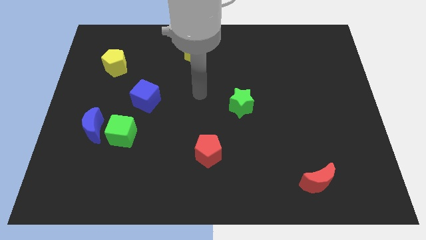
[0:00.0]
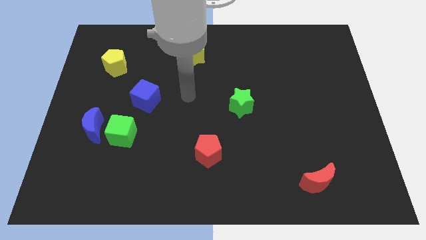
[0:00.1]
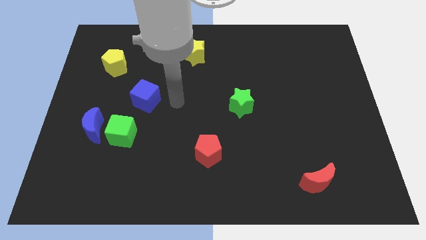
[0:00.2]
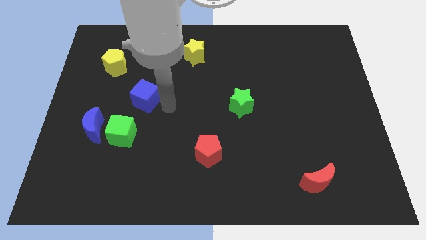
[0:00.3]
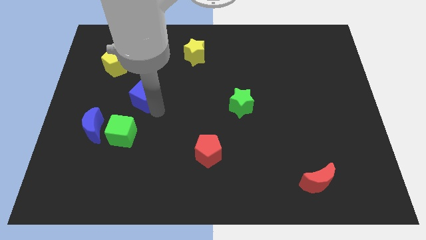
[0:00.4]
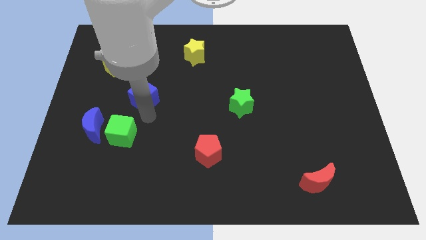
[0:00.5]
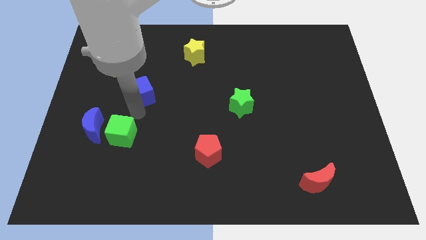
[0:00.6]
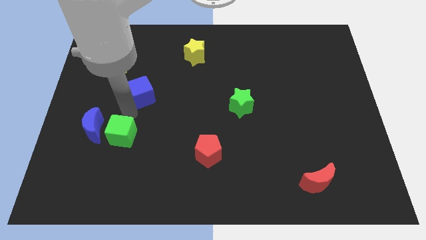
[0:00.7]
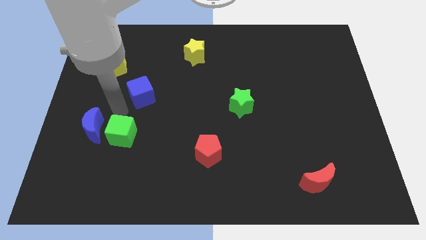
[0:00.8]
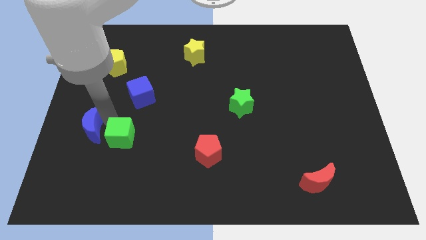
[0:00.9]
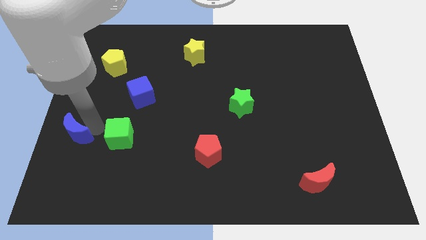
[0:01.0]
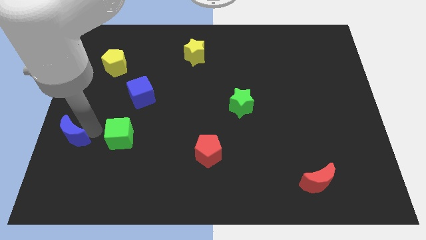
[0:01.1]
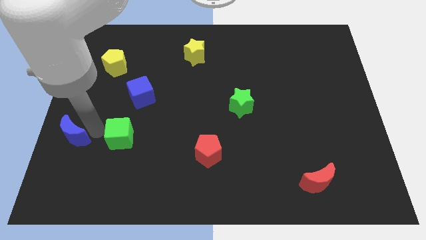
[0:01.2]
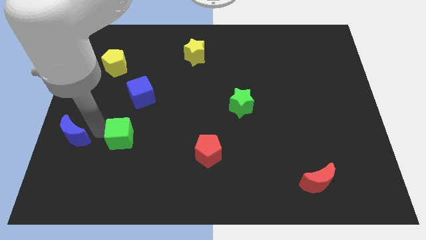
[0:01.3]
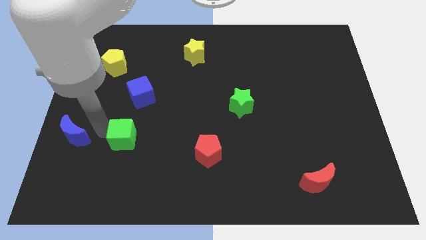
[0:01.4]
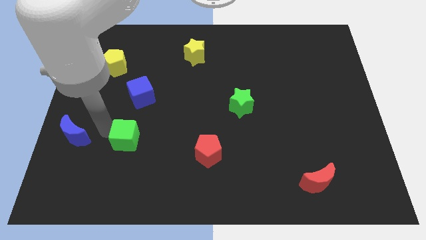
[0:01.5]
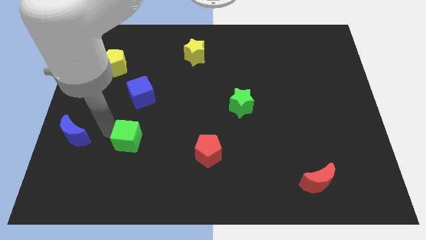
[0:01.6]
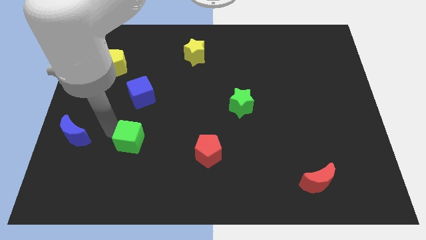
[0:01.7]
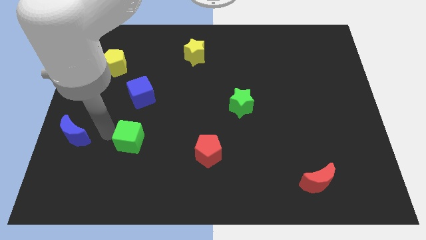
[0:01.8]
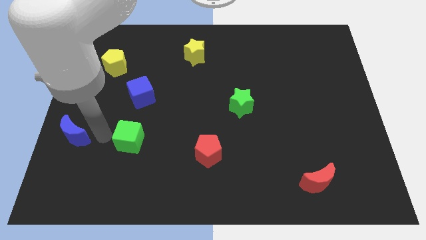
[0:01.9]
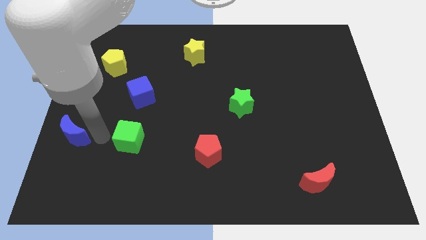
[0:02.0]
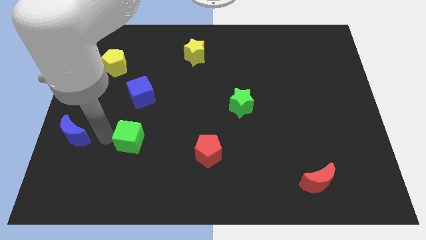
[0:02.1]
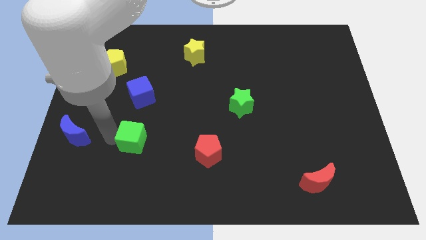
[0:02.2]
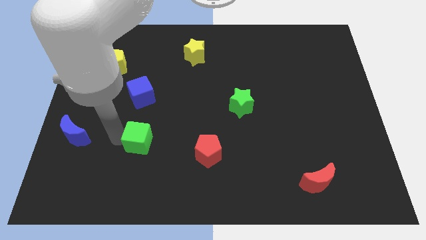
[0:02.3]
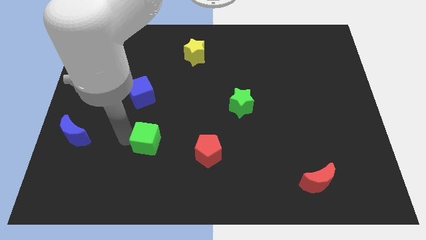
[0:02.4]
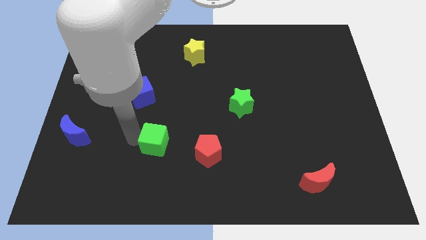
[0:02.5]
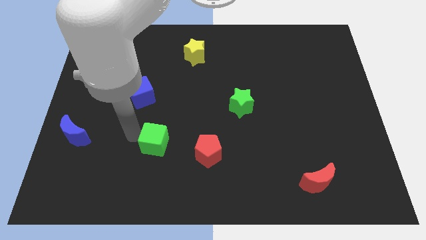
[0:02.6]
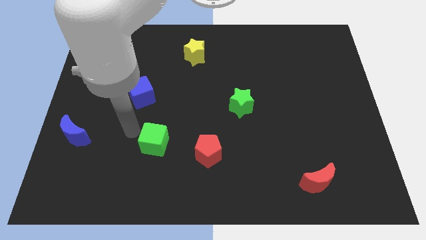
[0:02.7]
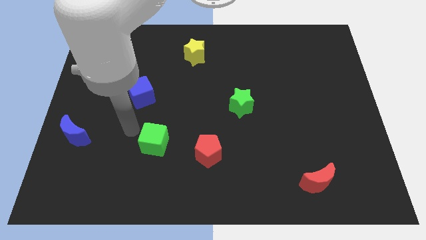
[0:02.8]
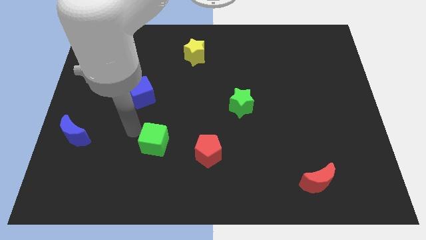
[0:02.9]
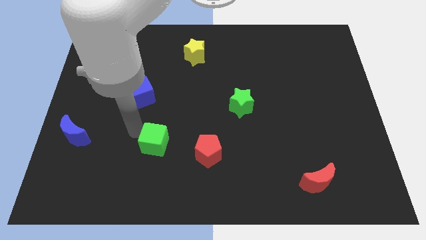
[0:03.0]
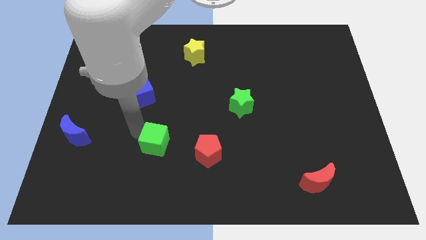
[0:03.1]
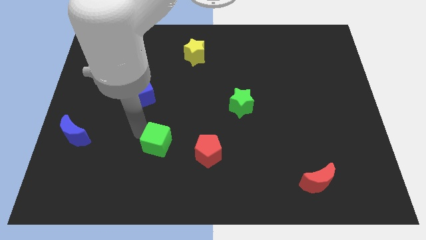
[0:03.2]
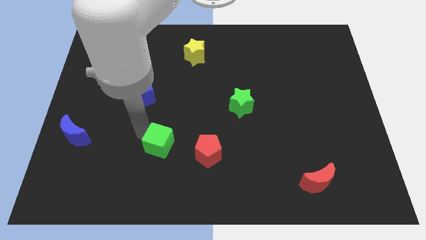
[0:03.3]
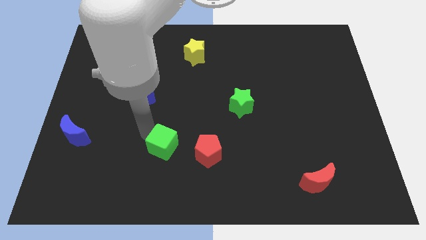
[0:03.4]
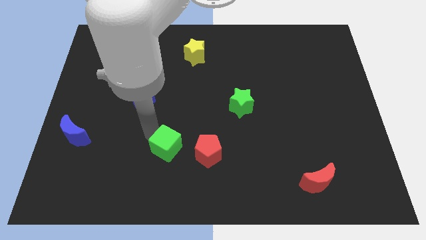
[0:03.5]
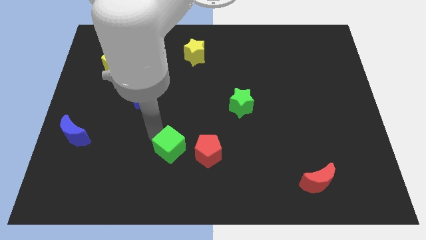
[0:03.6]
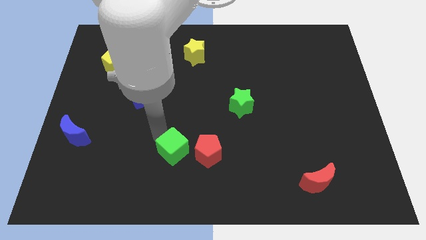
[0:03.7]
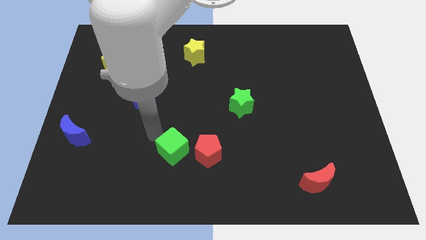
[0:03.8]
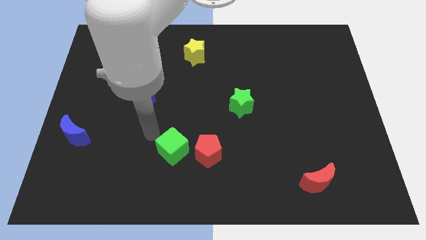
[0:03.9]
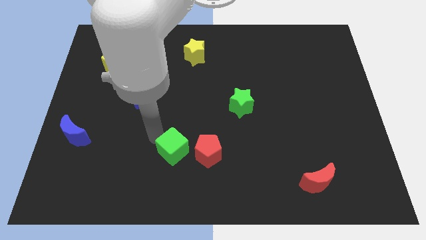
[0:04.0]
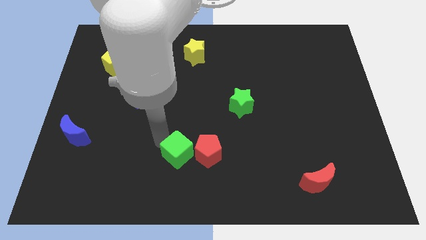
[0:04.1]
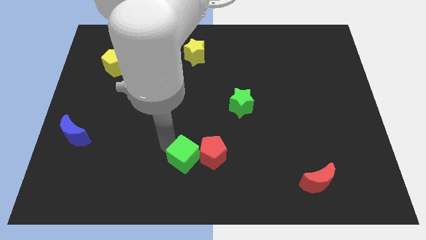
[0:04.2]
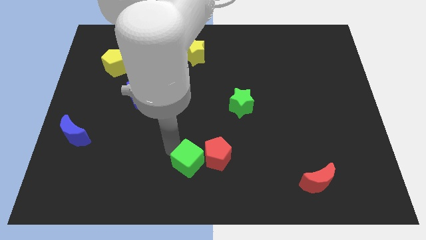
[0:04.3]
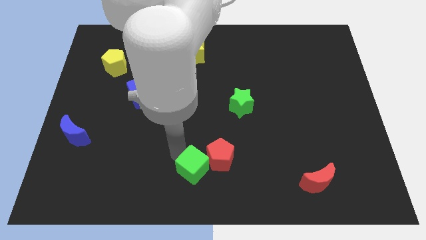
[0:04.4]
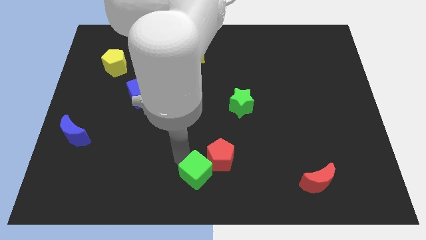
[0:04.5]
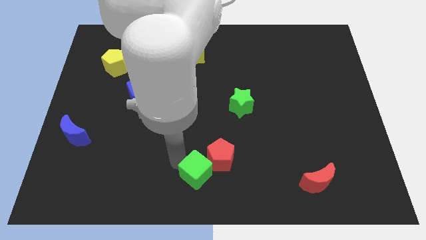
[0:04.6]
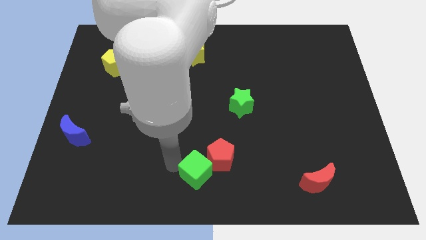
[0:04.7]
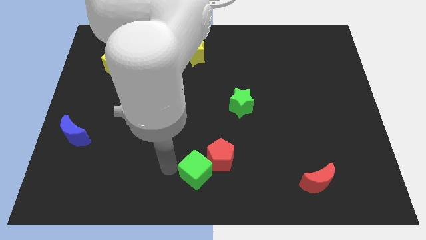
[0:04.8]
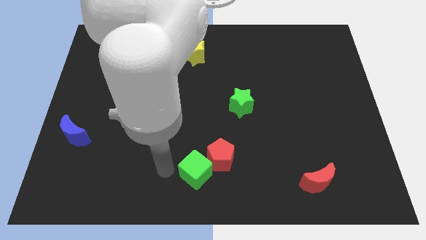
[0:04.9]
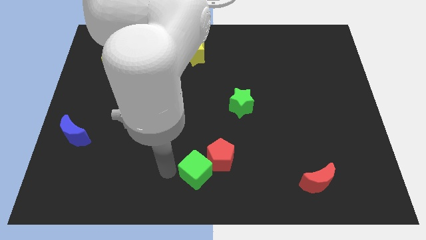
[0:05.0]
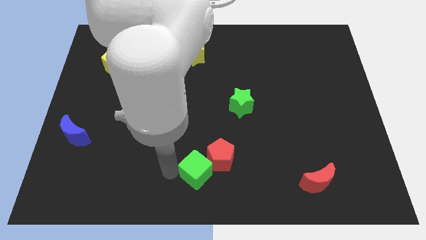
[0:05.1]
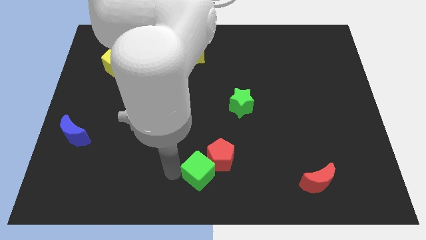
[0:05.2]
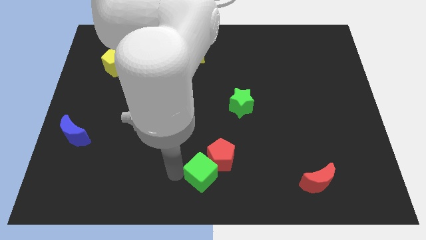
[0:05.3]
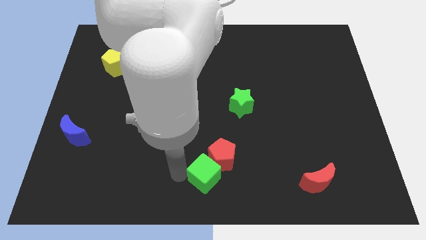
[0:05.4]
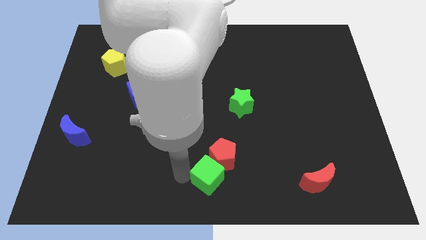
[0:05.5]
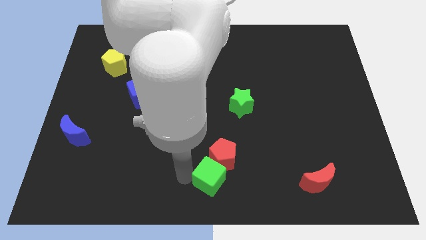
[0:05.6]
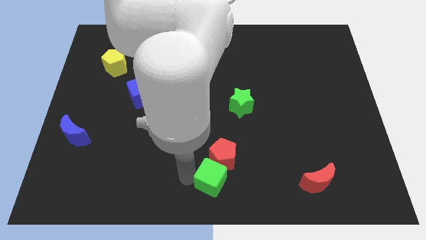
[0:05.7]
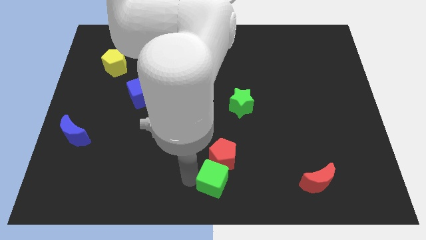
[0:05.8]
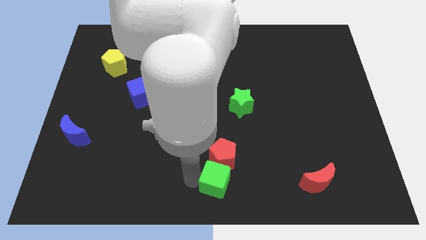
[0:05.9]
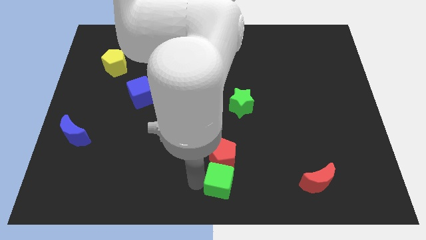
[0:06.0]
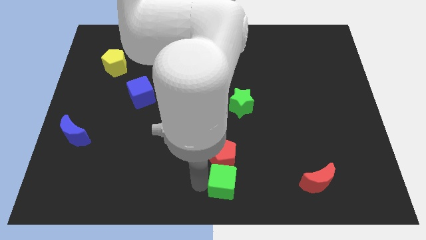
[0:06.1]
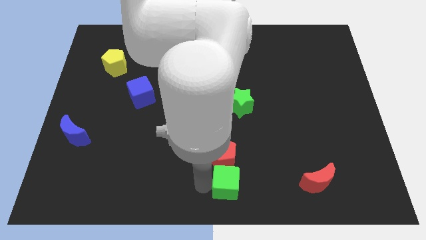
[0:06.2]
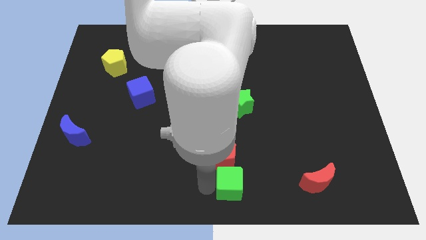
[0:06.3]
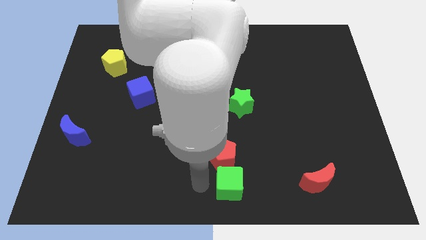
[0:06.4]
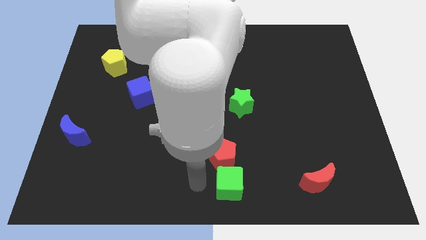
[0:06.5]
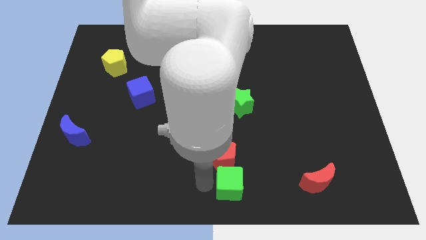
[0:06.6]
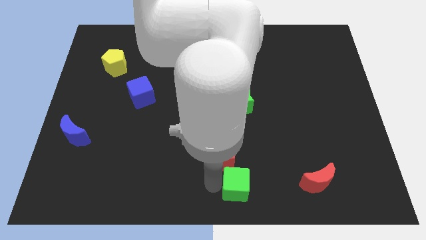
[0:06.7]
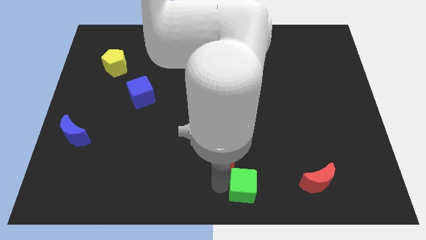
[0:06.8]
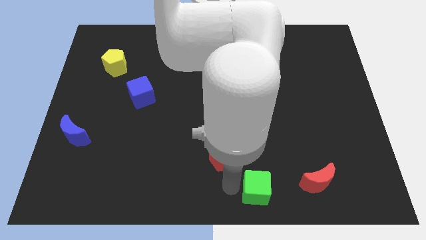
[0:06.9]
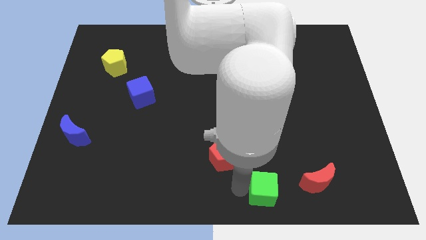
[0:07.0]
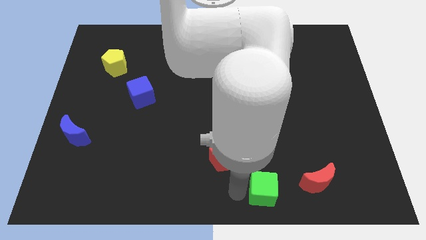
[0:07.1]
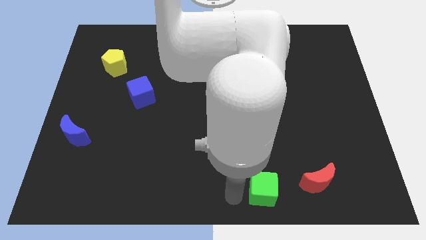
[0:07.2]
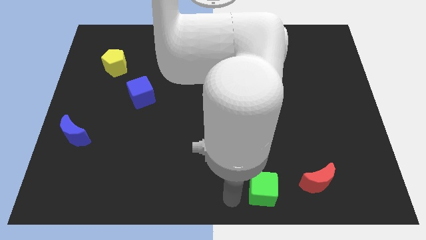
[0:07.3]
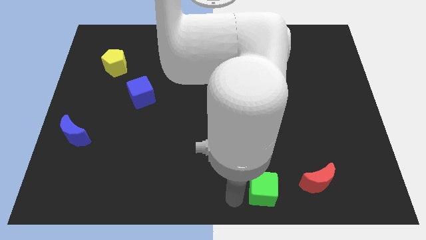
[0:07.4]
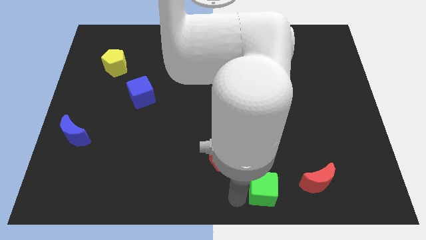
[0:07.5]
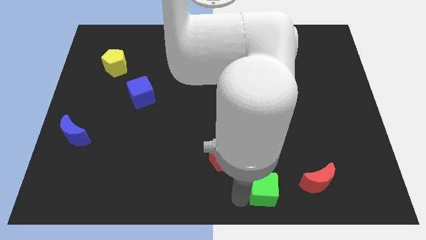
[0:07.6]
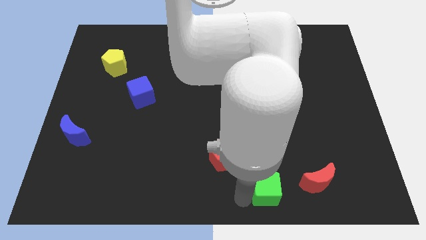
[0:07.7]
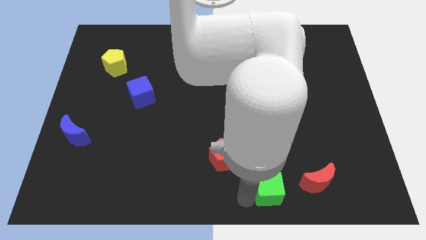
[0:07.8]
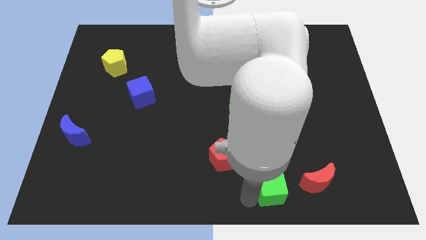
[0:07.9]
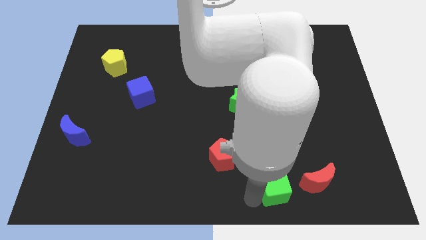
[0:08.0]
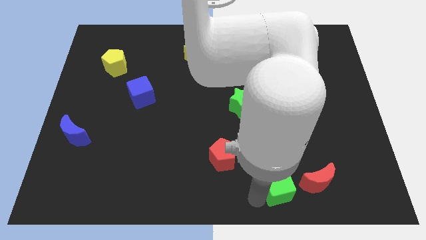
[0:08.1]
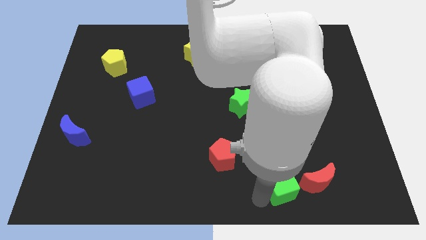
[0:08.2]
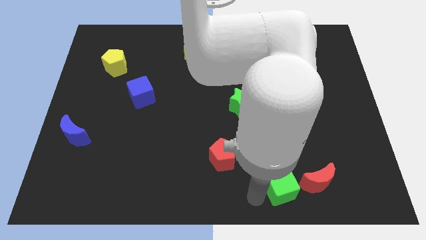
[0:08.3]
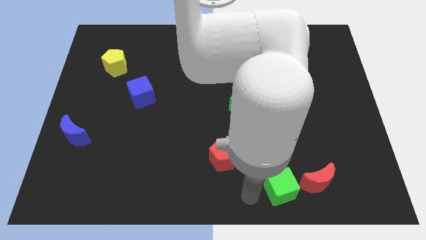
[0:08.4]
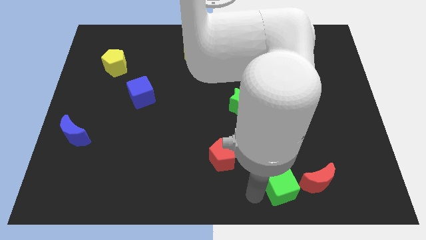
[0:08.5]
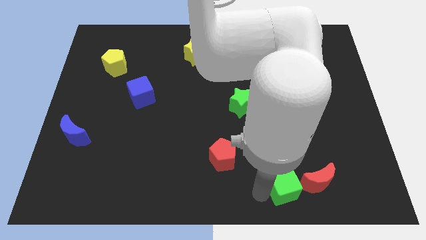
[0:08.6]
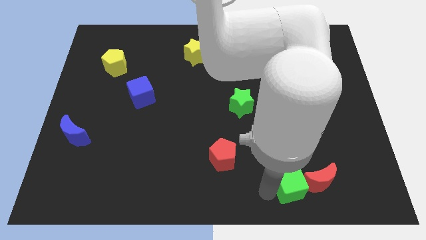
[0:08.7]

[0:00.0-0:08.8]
push the green cube next to the red moon
